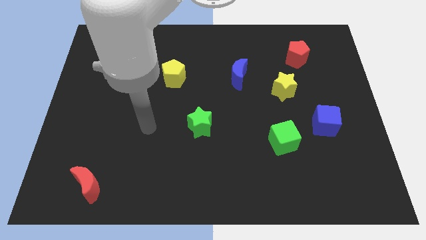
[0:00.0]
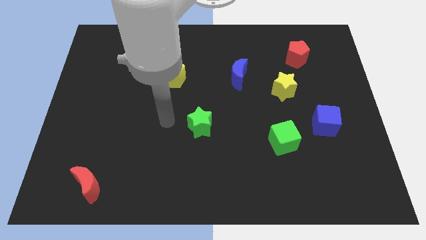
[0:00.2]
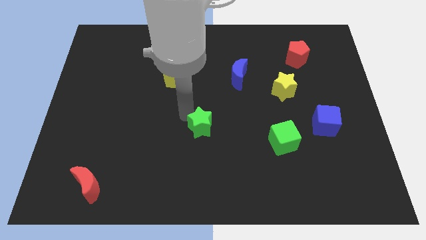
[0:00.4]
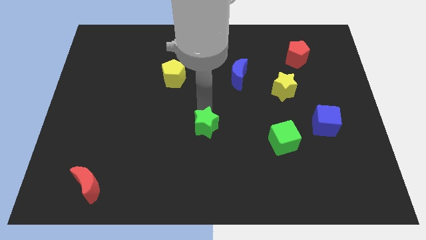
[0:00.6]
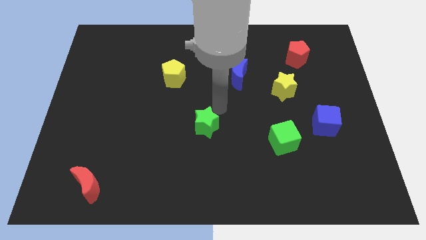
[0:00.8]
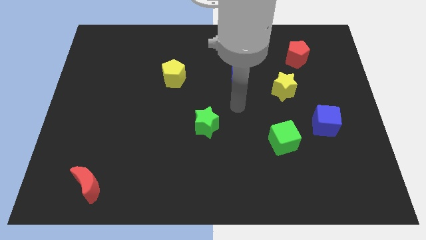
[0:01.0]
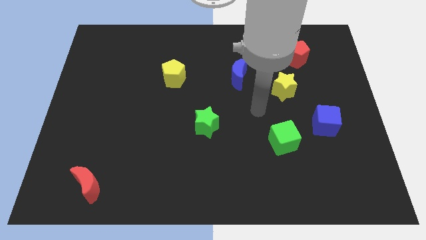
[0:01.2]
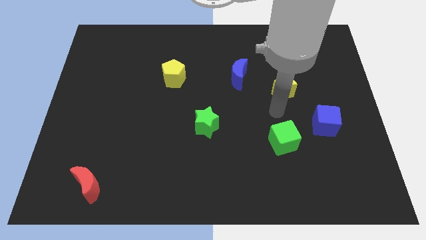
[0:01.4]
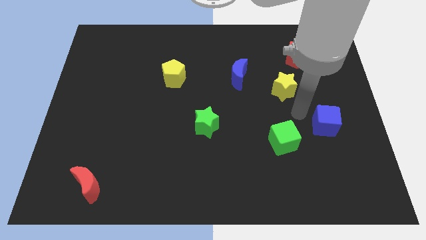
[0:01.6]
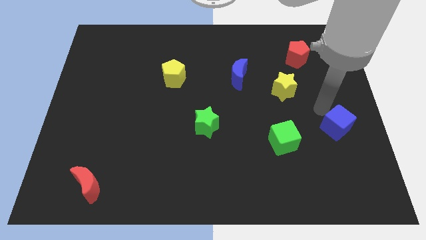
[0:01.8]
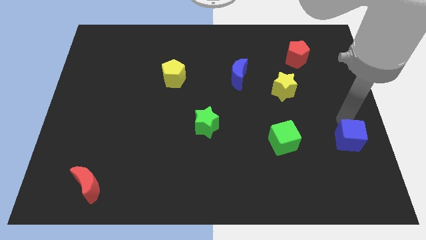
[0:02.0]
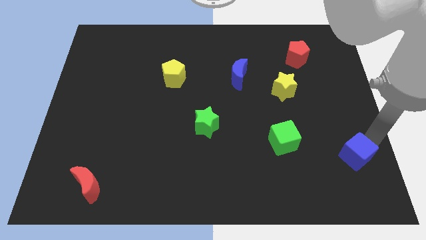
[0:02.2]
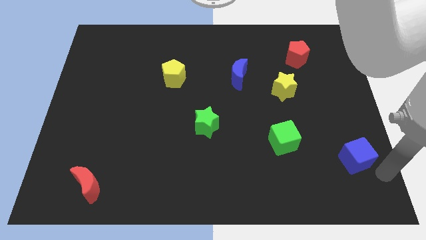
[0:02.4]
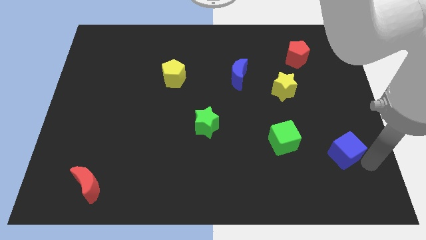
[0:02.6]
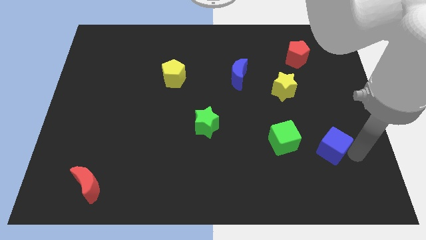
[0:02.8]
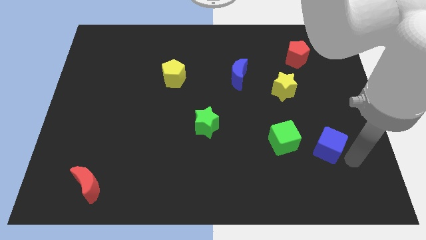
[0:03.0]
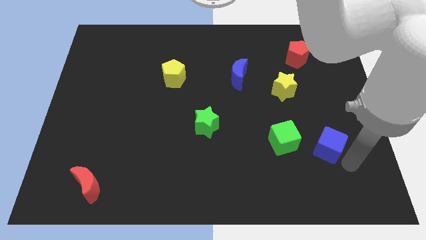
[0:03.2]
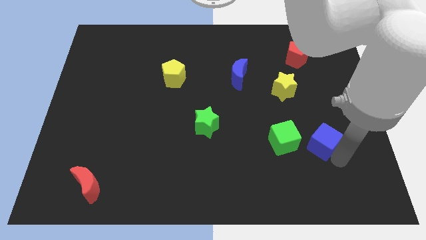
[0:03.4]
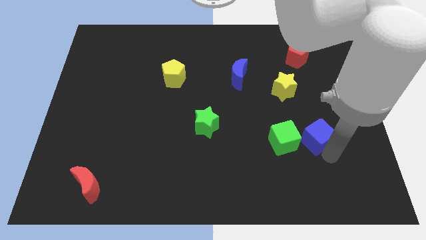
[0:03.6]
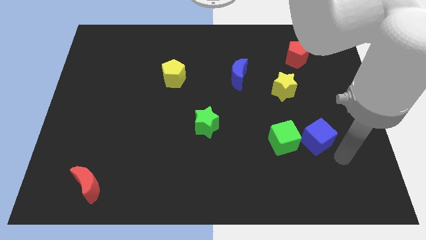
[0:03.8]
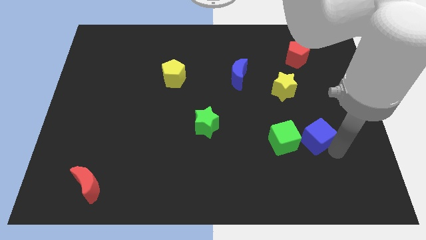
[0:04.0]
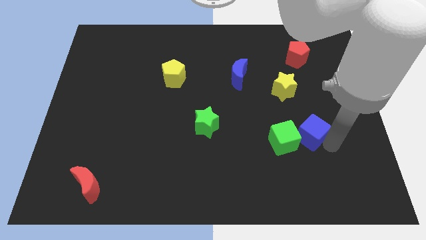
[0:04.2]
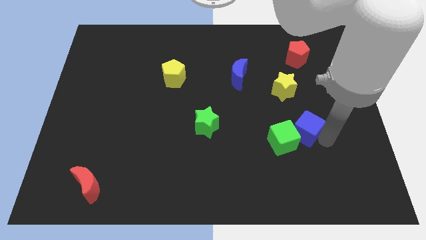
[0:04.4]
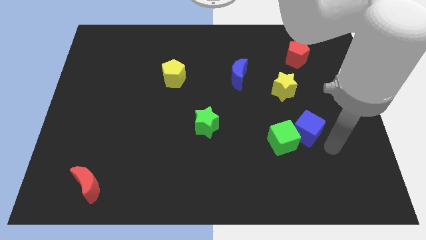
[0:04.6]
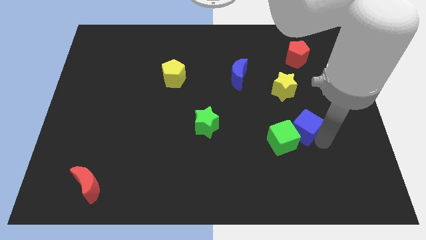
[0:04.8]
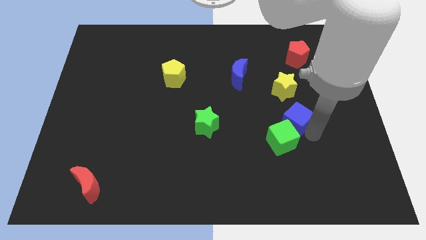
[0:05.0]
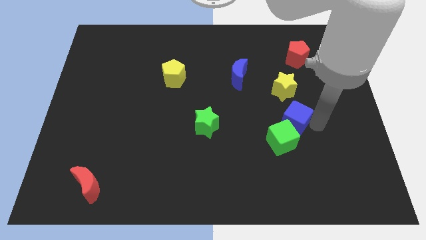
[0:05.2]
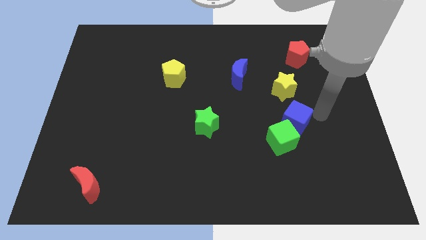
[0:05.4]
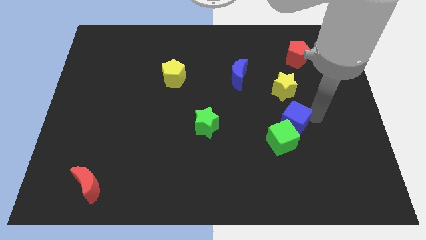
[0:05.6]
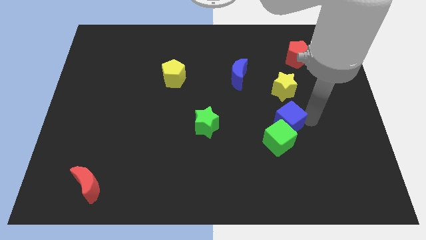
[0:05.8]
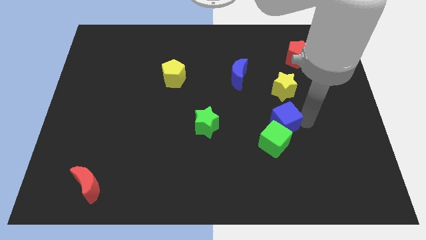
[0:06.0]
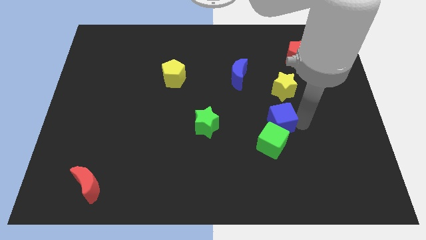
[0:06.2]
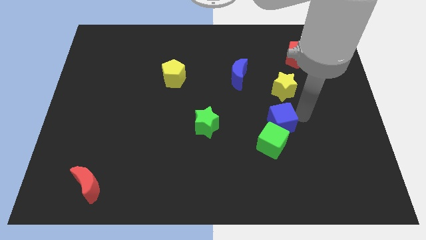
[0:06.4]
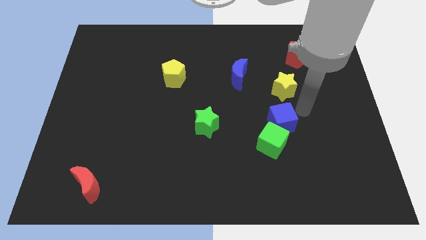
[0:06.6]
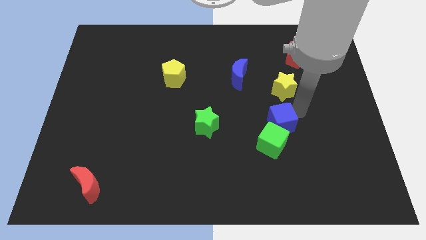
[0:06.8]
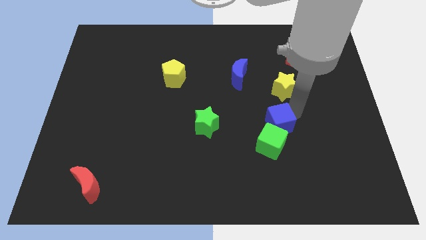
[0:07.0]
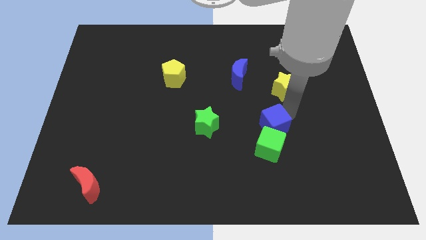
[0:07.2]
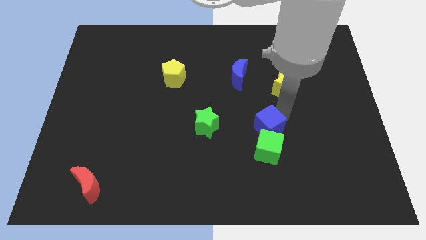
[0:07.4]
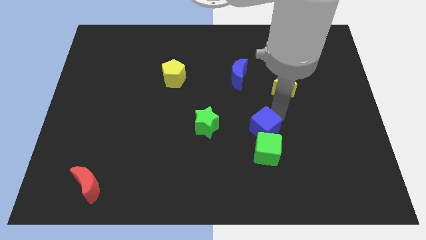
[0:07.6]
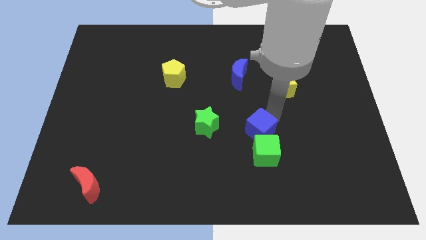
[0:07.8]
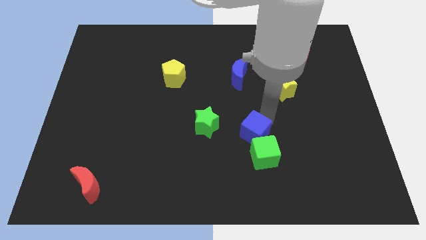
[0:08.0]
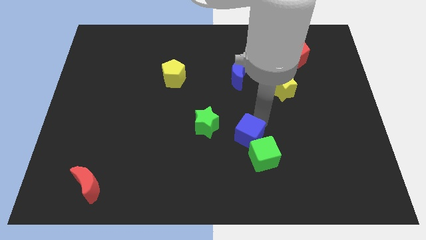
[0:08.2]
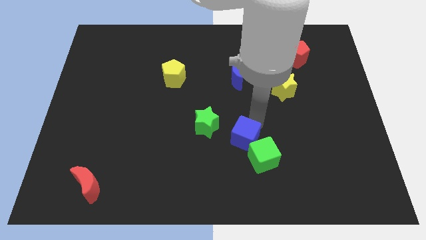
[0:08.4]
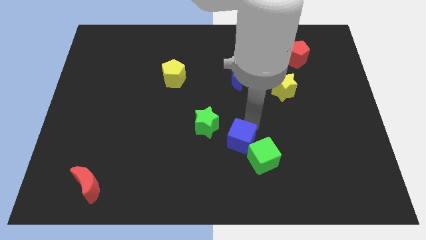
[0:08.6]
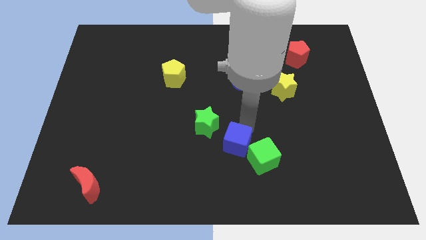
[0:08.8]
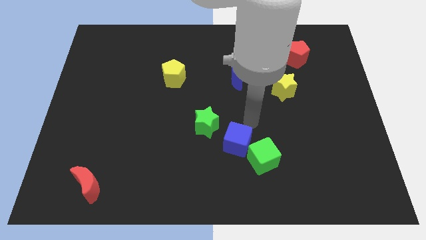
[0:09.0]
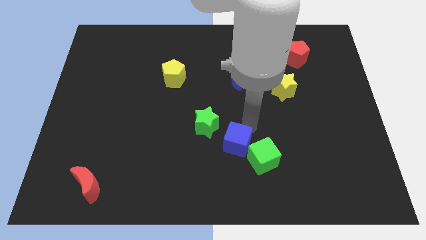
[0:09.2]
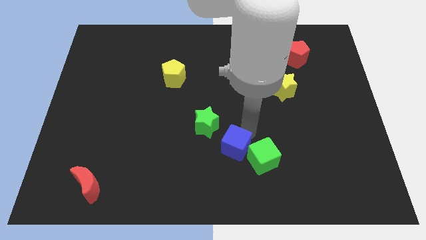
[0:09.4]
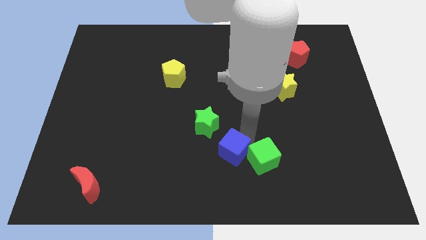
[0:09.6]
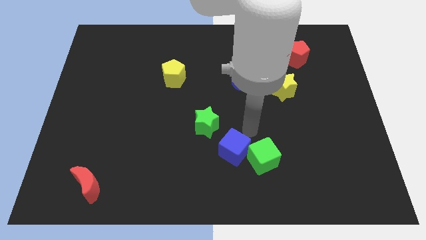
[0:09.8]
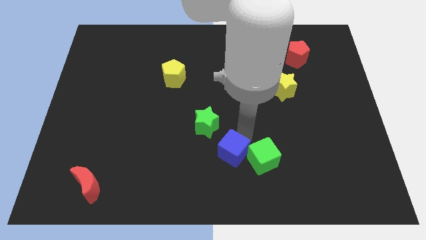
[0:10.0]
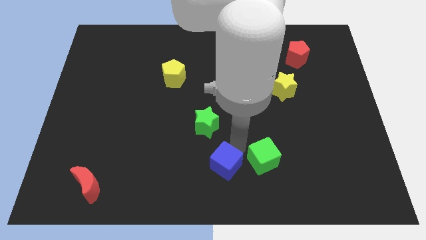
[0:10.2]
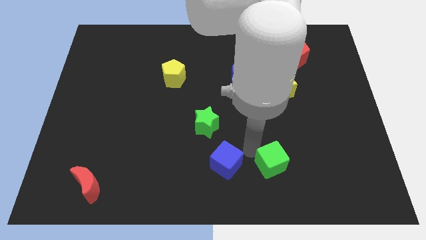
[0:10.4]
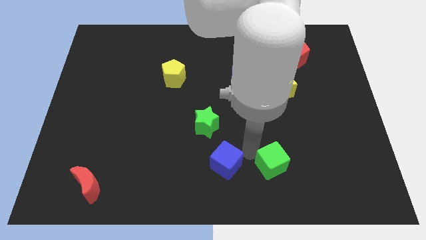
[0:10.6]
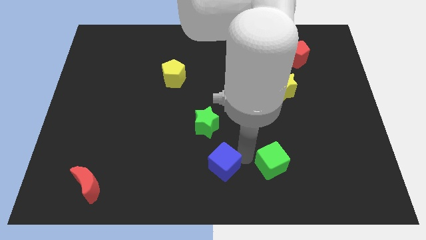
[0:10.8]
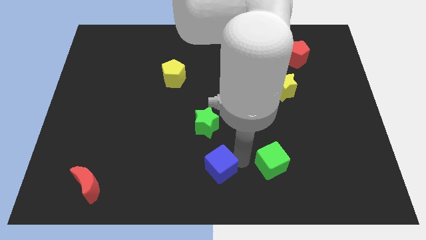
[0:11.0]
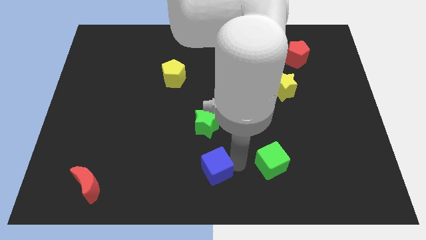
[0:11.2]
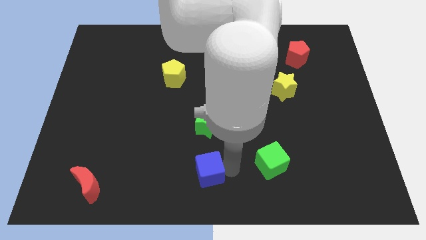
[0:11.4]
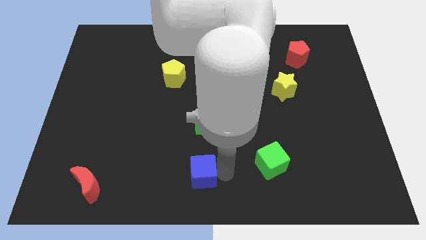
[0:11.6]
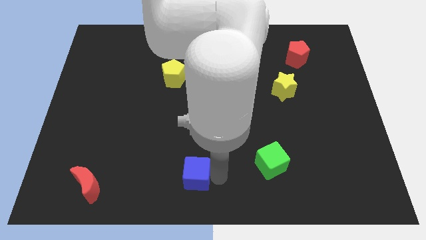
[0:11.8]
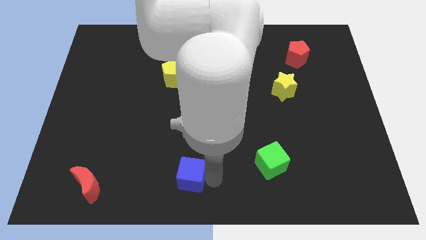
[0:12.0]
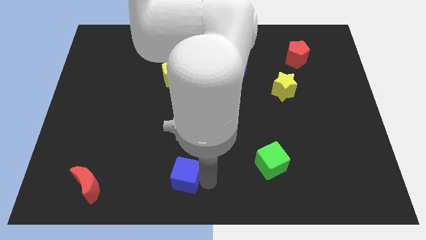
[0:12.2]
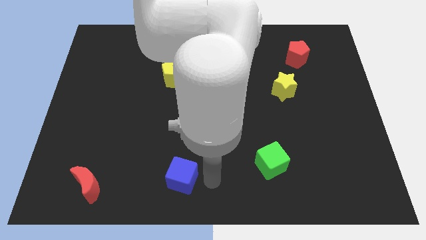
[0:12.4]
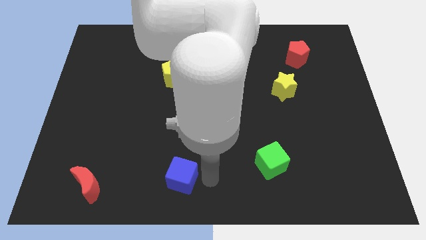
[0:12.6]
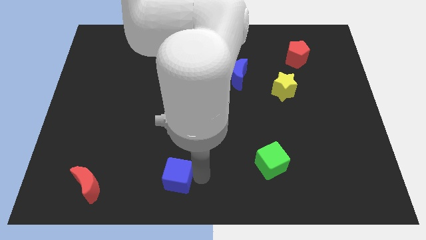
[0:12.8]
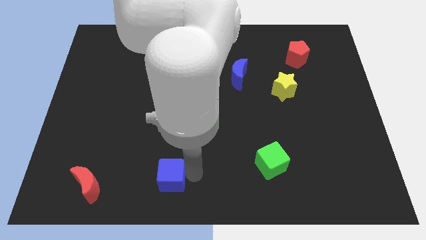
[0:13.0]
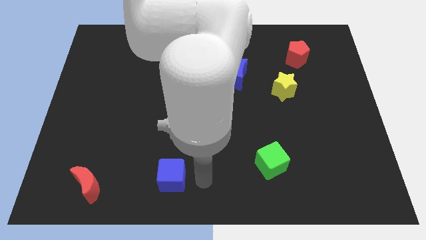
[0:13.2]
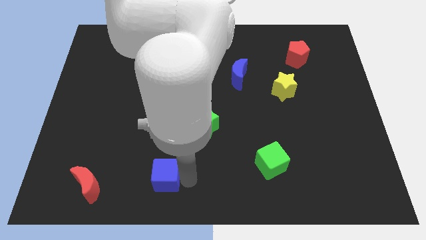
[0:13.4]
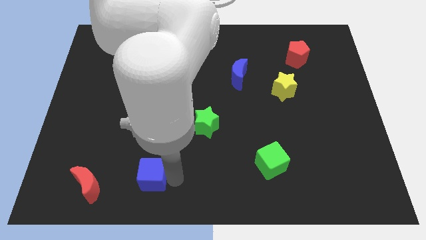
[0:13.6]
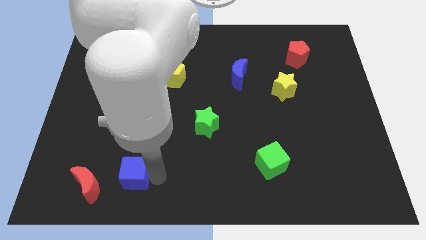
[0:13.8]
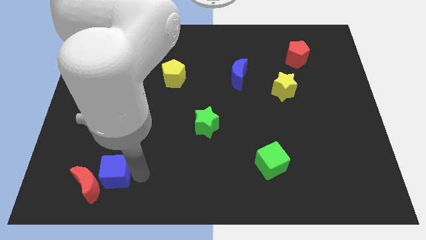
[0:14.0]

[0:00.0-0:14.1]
slide the blue cube to the red moon
